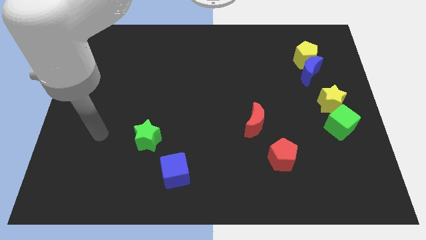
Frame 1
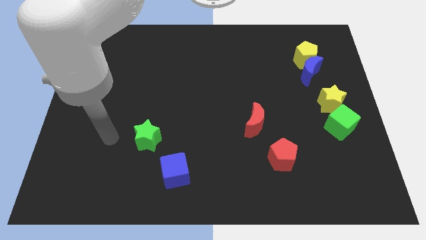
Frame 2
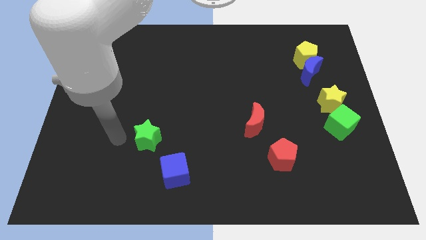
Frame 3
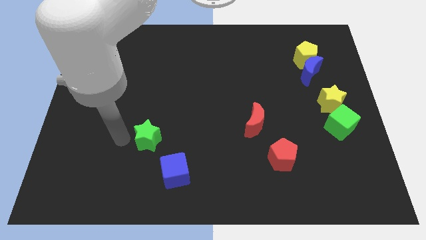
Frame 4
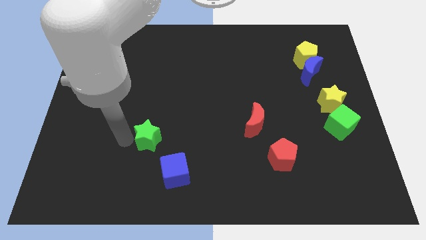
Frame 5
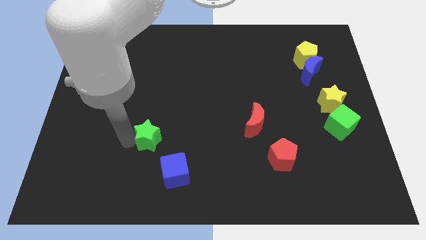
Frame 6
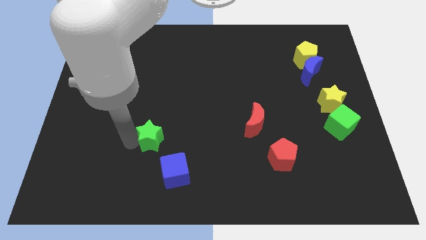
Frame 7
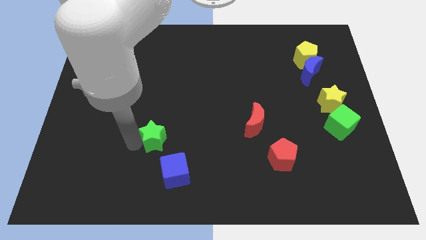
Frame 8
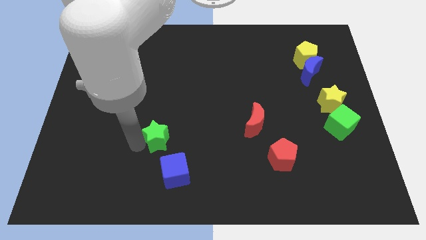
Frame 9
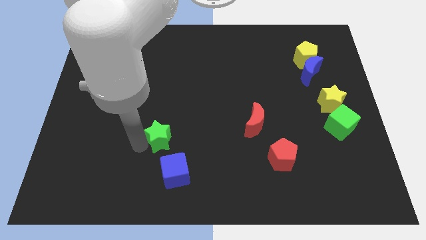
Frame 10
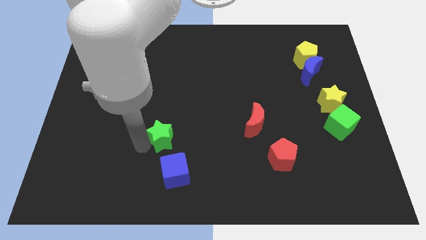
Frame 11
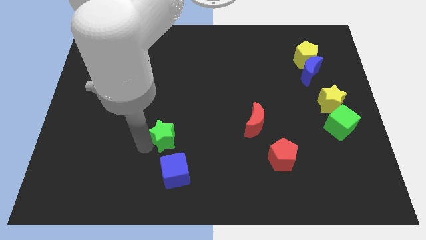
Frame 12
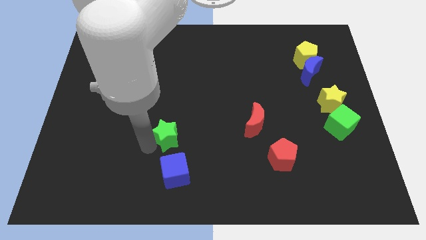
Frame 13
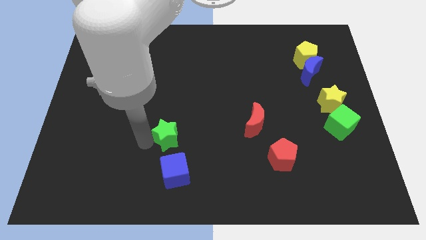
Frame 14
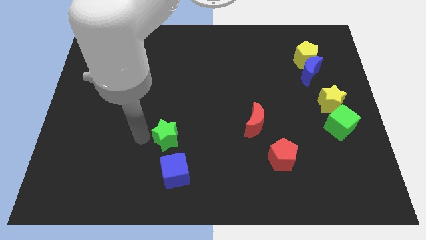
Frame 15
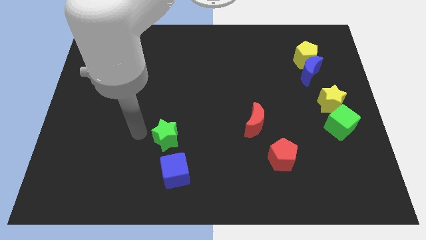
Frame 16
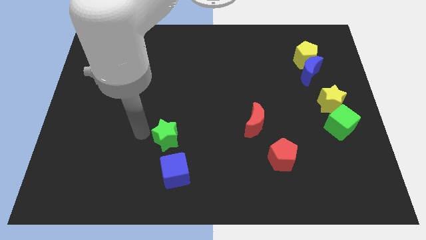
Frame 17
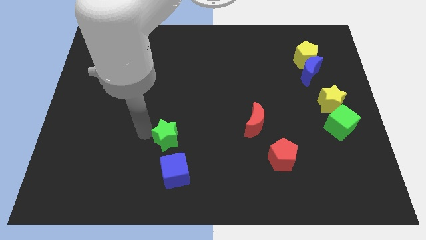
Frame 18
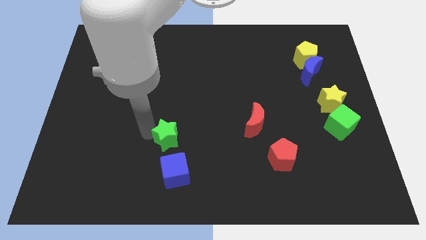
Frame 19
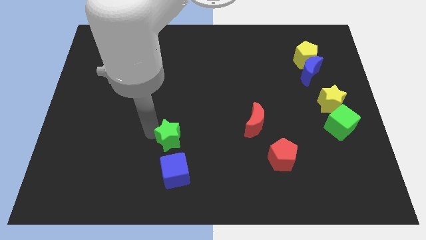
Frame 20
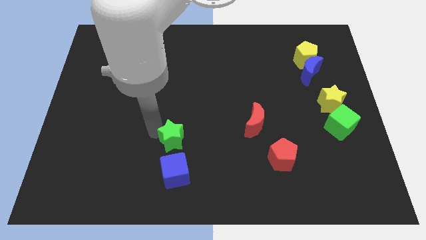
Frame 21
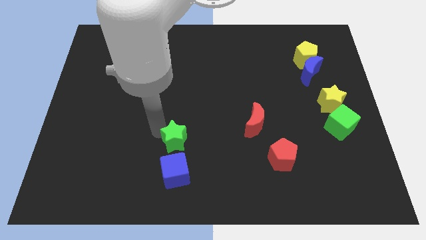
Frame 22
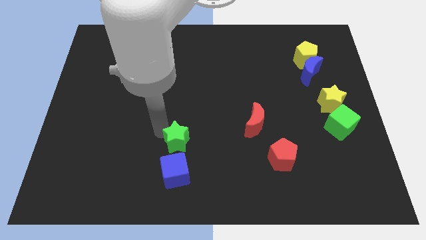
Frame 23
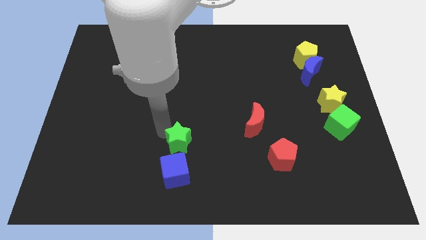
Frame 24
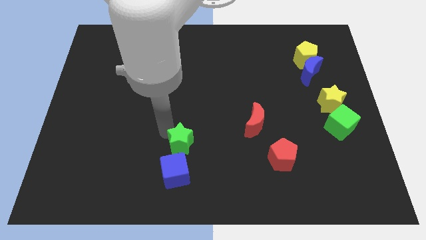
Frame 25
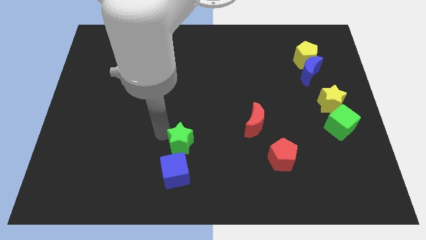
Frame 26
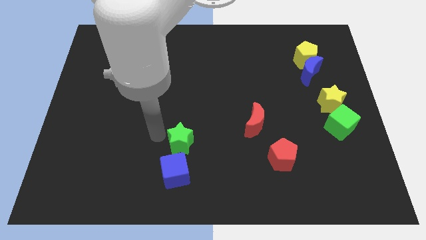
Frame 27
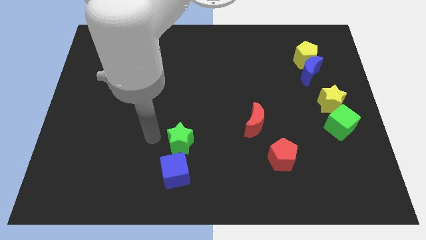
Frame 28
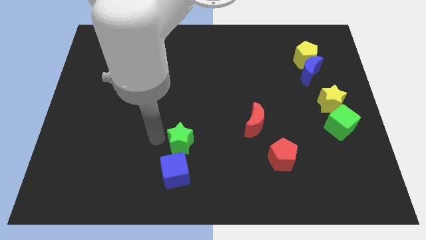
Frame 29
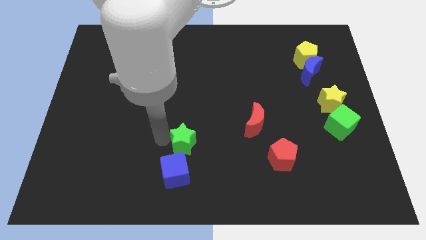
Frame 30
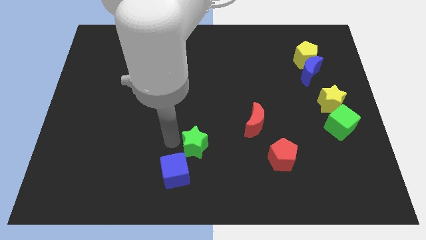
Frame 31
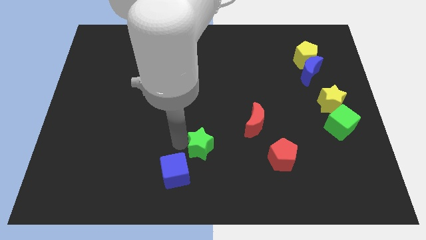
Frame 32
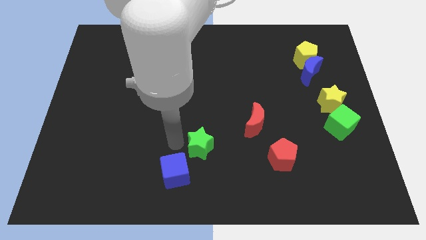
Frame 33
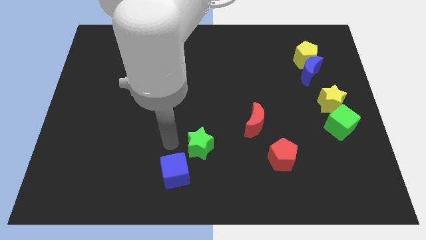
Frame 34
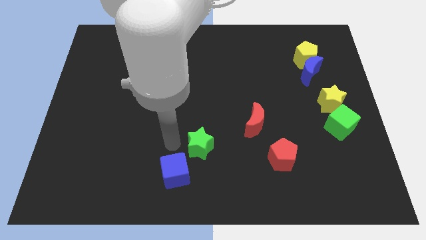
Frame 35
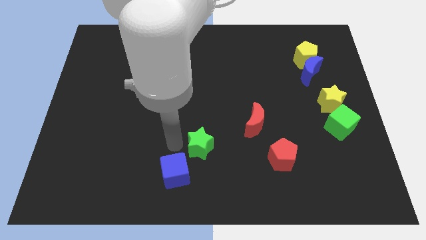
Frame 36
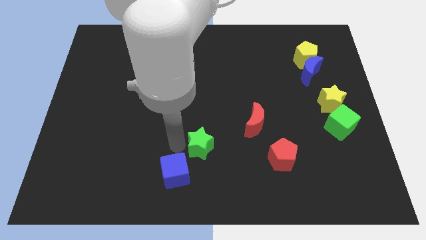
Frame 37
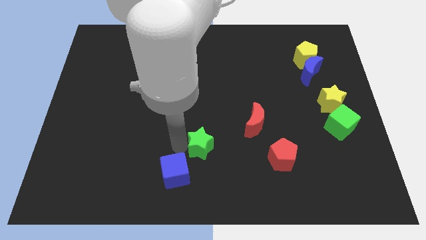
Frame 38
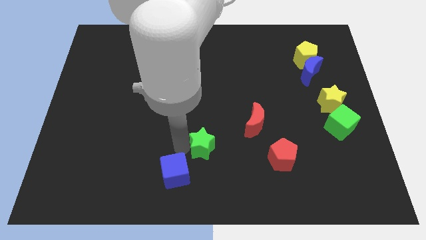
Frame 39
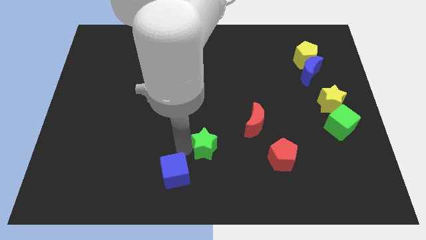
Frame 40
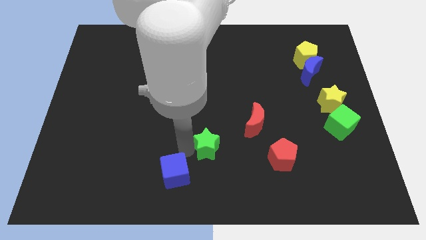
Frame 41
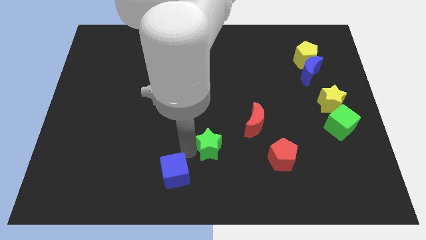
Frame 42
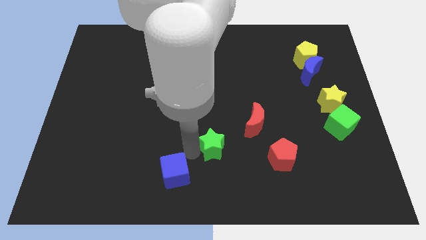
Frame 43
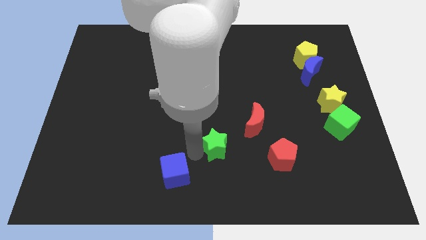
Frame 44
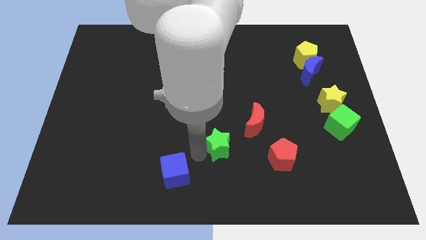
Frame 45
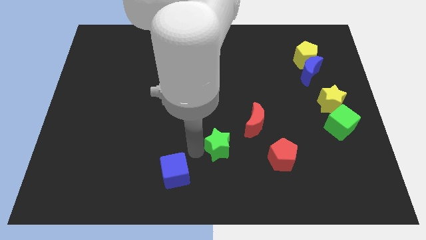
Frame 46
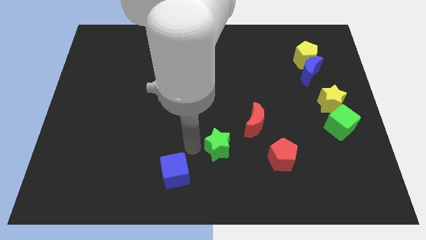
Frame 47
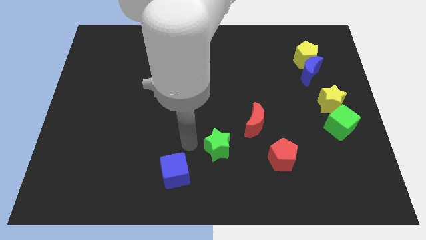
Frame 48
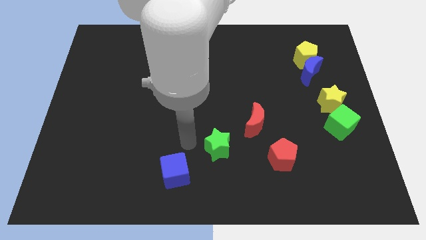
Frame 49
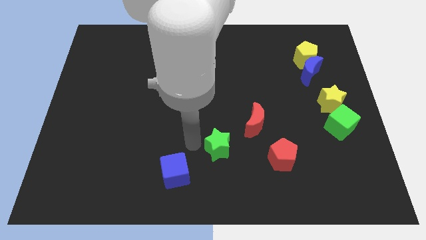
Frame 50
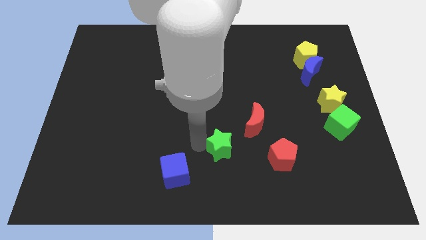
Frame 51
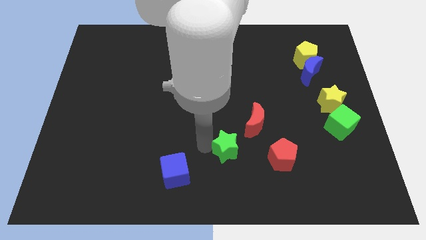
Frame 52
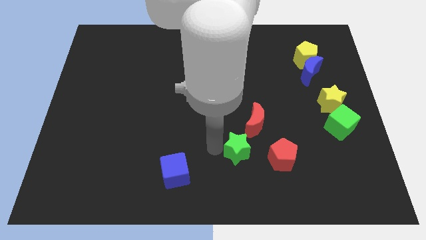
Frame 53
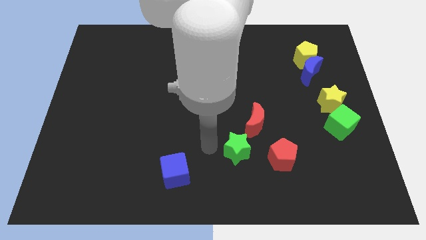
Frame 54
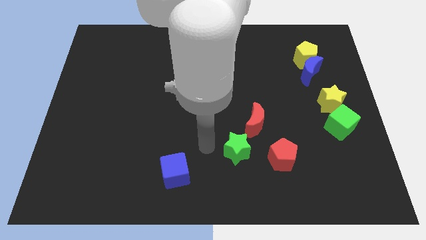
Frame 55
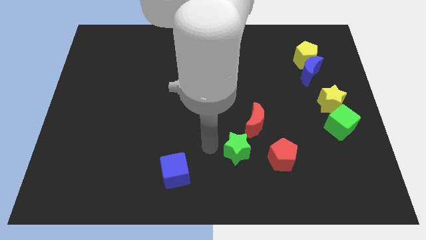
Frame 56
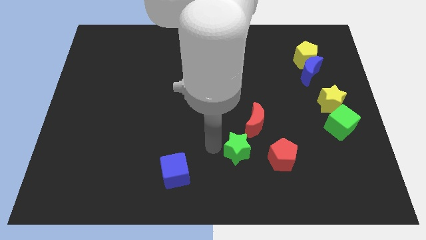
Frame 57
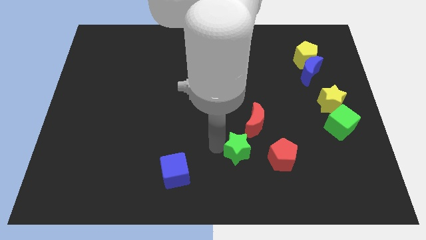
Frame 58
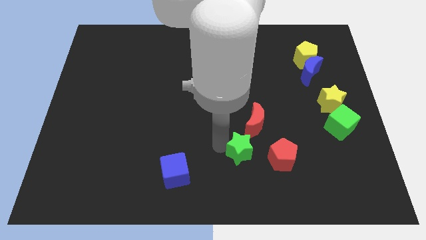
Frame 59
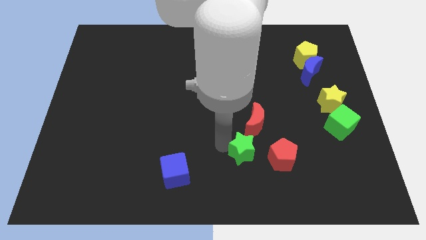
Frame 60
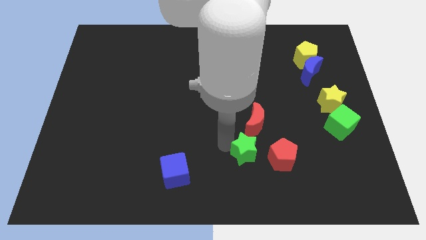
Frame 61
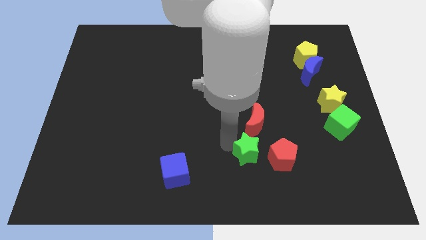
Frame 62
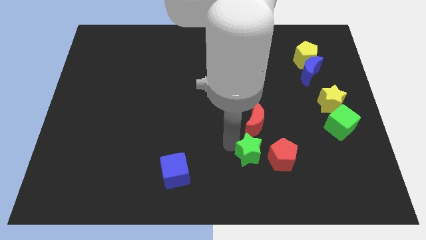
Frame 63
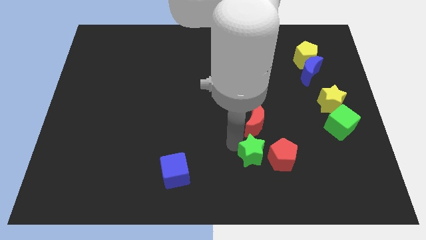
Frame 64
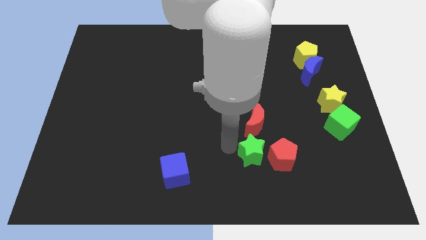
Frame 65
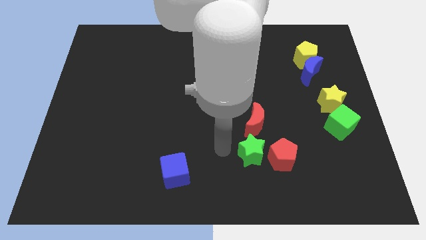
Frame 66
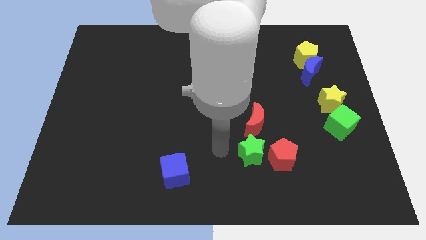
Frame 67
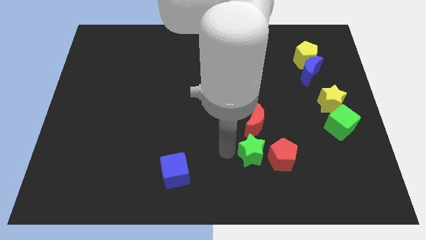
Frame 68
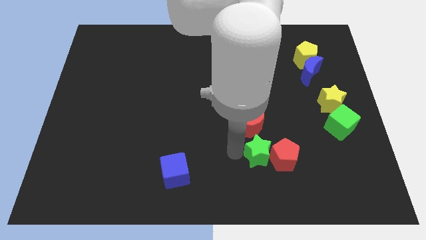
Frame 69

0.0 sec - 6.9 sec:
move the green star next to the red pentagon
